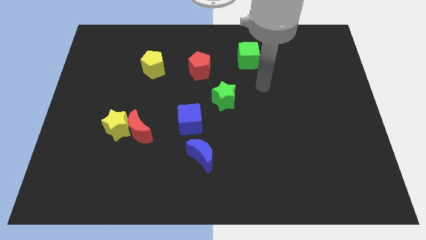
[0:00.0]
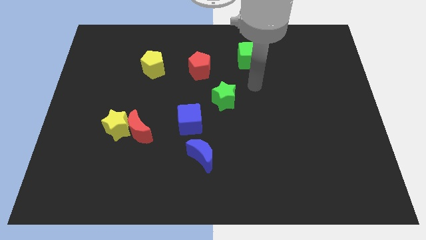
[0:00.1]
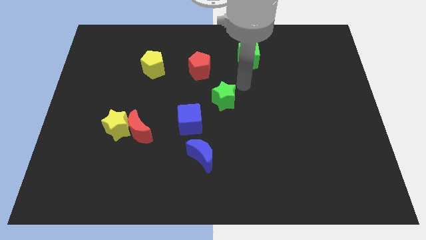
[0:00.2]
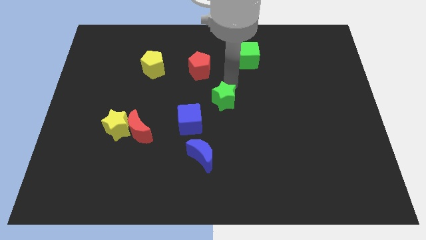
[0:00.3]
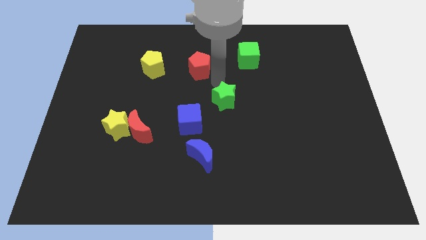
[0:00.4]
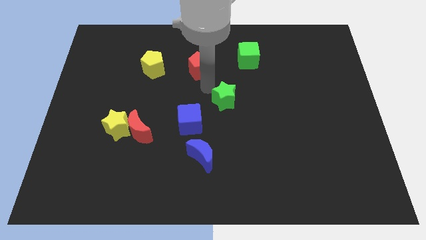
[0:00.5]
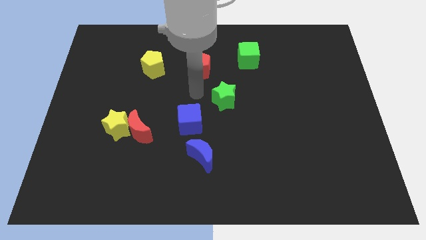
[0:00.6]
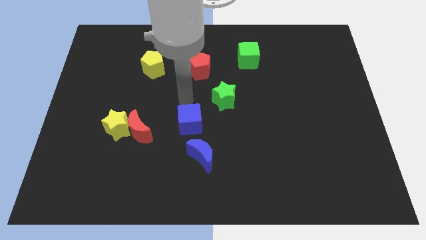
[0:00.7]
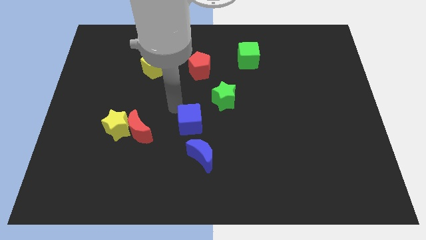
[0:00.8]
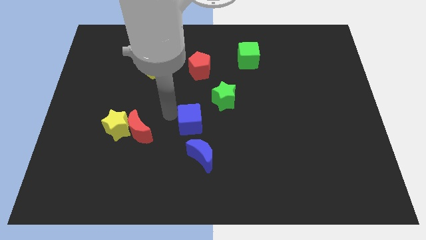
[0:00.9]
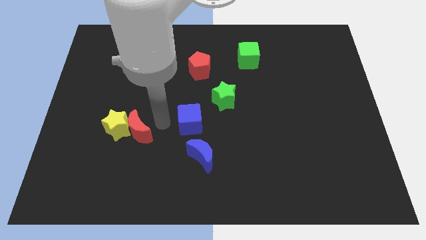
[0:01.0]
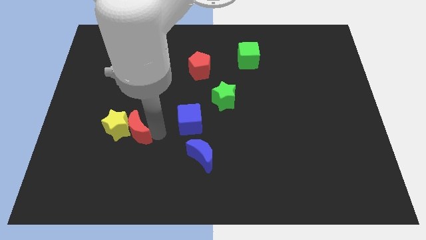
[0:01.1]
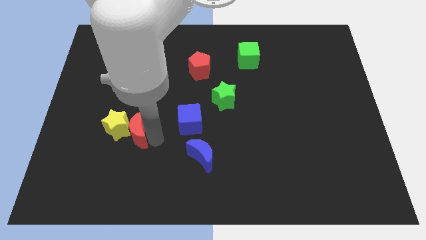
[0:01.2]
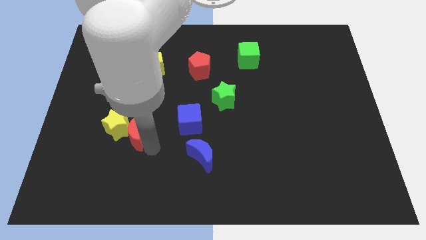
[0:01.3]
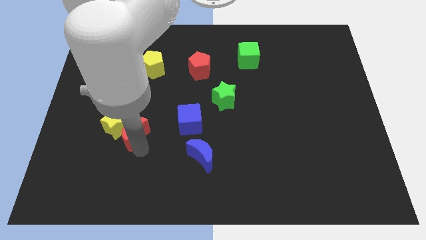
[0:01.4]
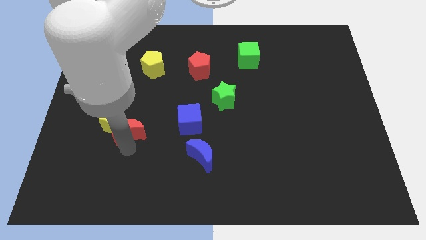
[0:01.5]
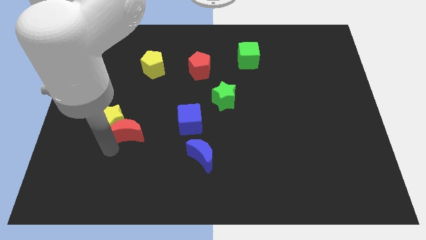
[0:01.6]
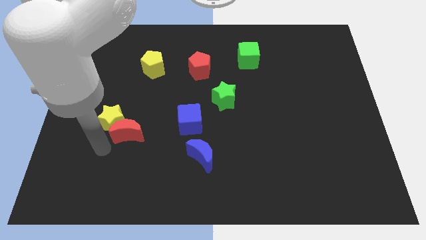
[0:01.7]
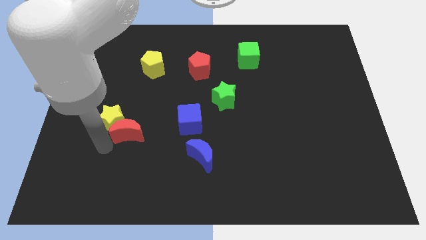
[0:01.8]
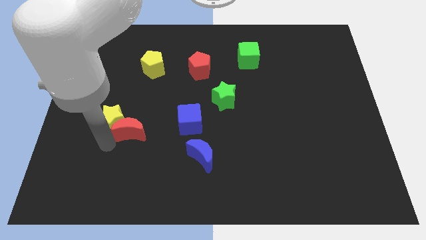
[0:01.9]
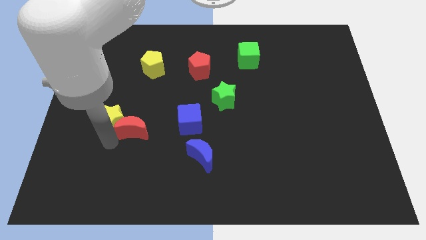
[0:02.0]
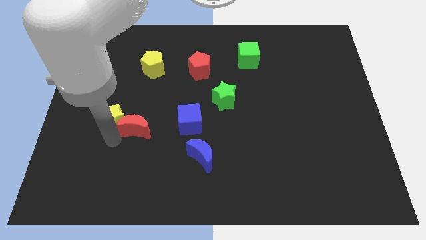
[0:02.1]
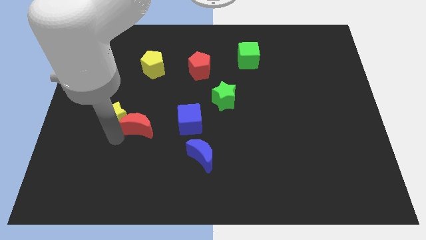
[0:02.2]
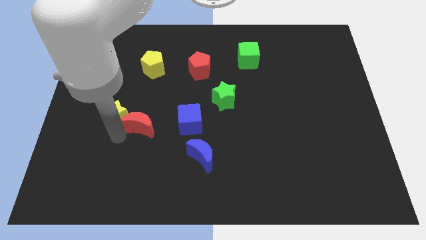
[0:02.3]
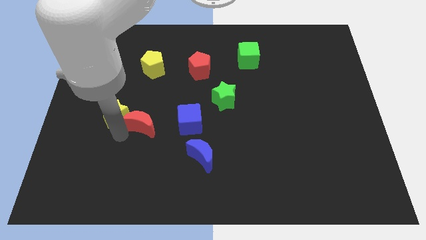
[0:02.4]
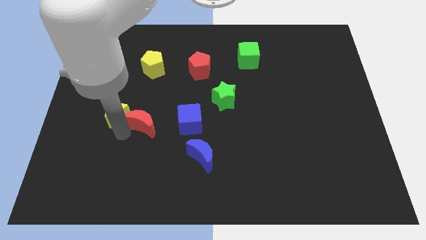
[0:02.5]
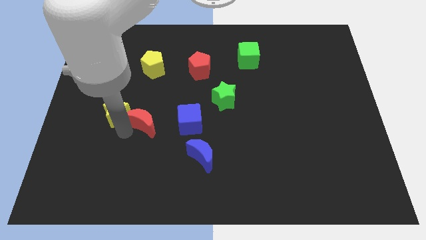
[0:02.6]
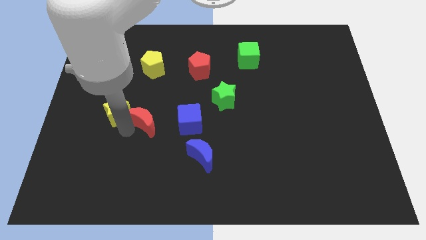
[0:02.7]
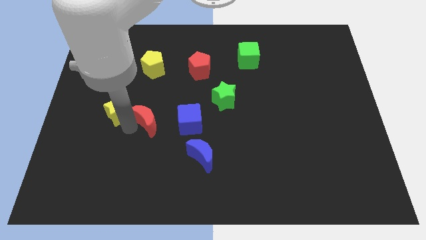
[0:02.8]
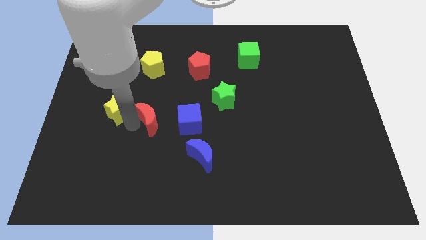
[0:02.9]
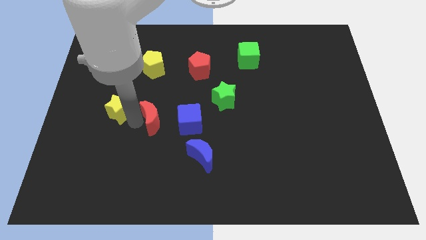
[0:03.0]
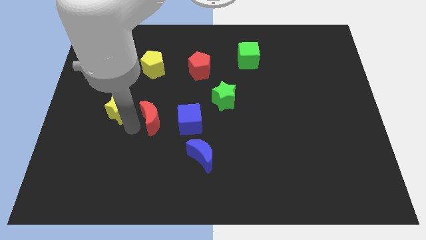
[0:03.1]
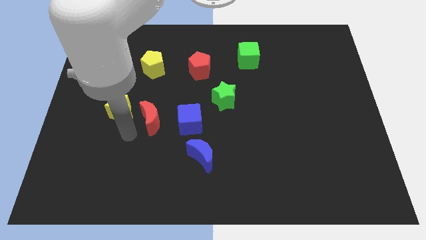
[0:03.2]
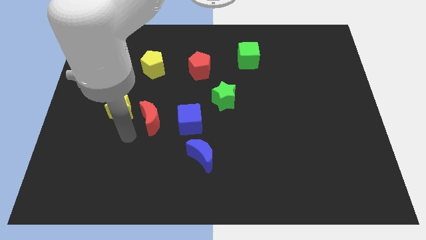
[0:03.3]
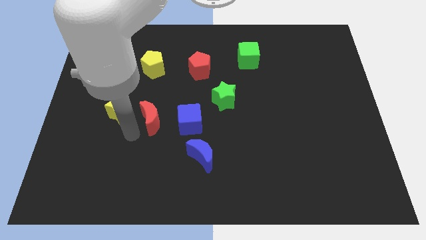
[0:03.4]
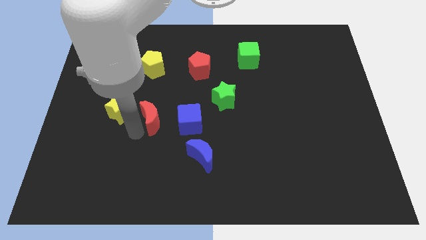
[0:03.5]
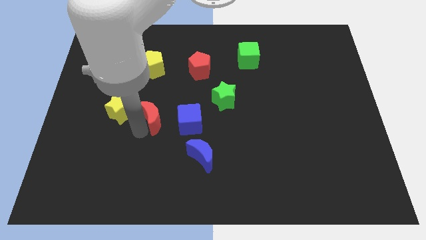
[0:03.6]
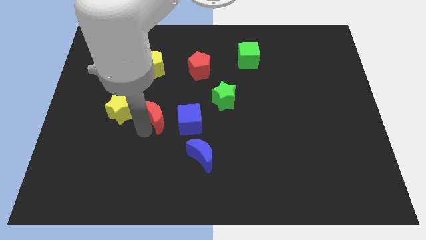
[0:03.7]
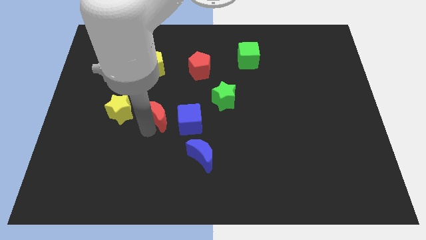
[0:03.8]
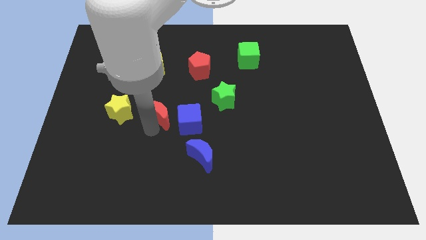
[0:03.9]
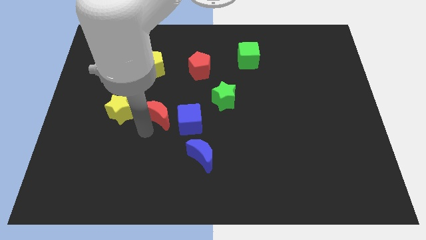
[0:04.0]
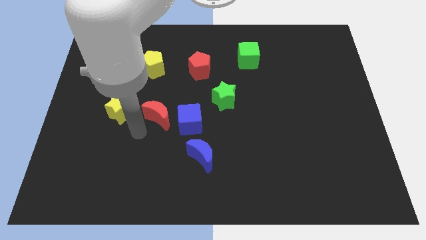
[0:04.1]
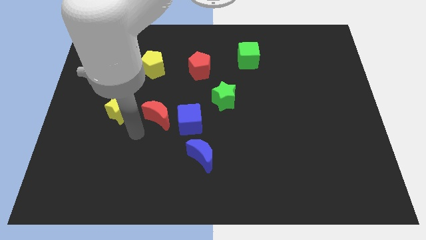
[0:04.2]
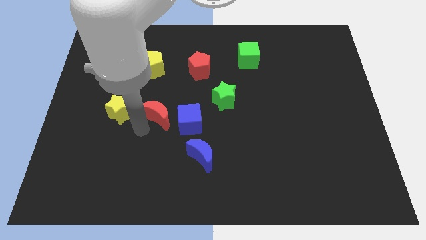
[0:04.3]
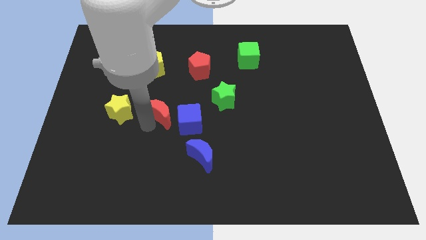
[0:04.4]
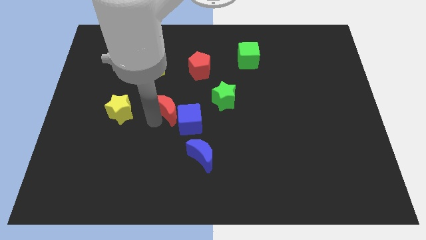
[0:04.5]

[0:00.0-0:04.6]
slide the red moon up and right somewhat

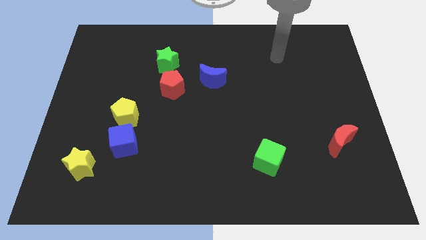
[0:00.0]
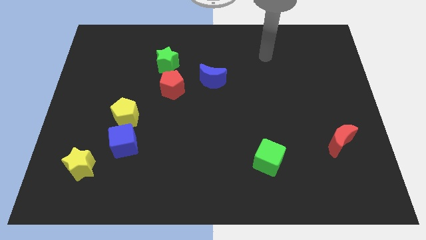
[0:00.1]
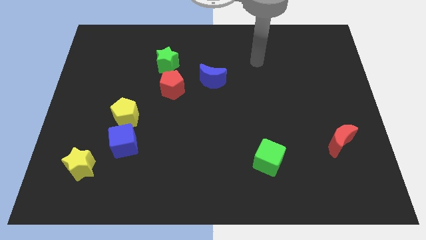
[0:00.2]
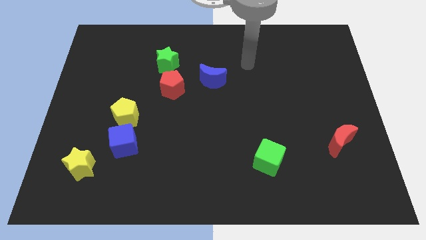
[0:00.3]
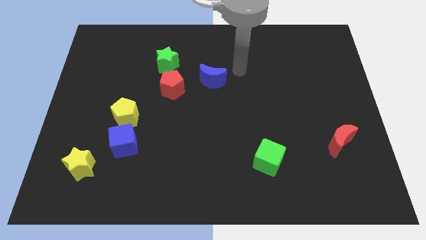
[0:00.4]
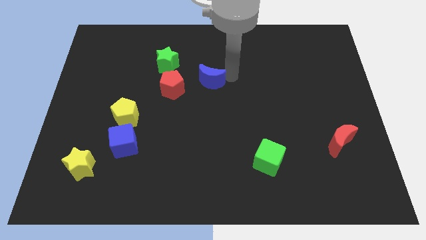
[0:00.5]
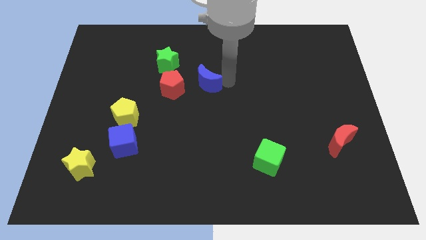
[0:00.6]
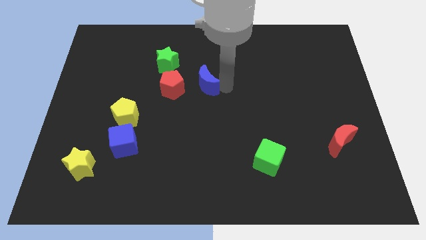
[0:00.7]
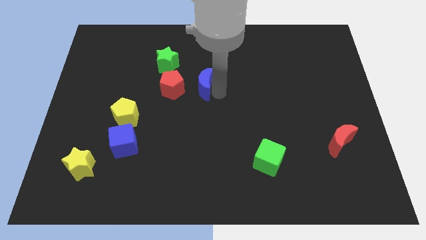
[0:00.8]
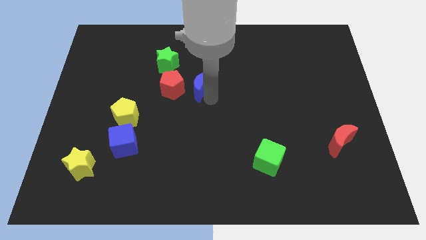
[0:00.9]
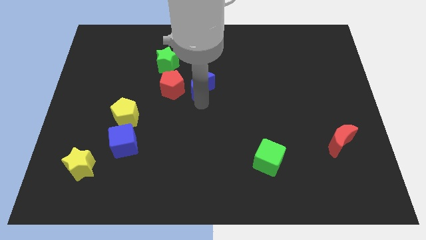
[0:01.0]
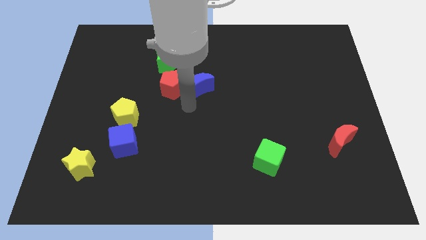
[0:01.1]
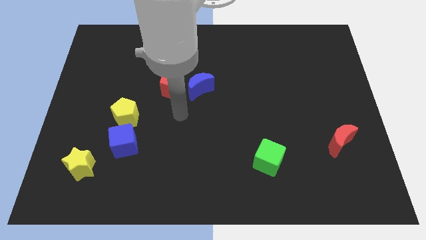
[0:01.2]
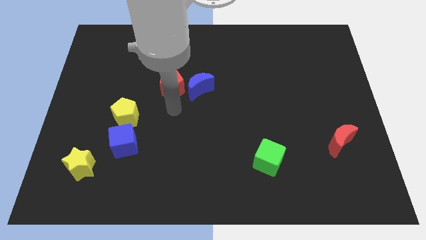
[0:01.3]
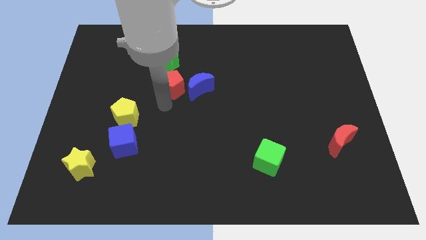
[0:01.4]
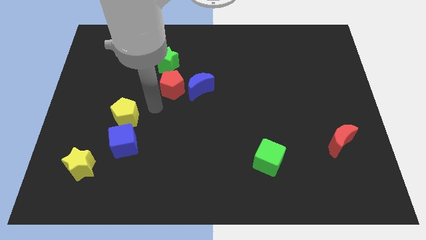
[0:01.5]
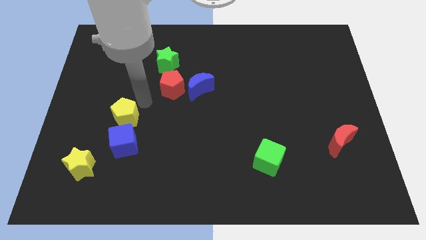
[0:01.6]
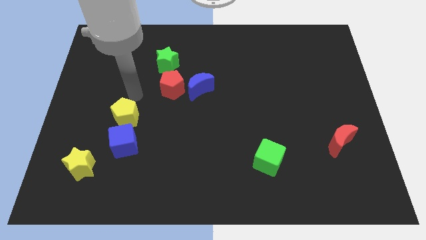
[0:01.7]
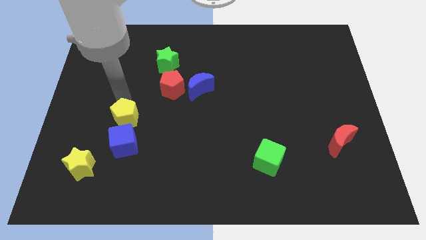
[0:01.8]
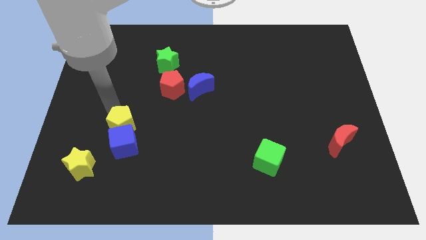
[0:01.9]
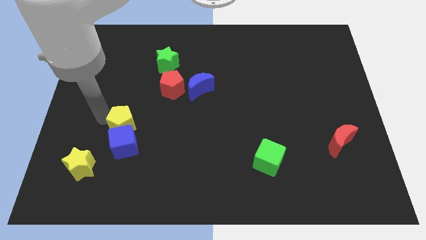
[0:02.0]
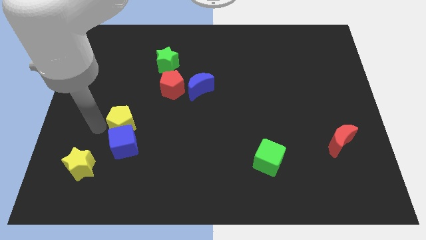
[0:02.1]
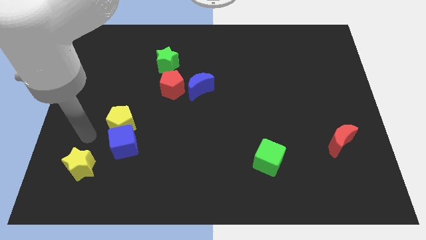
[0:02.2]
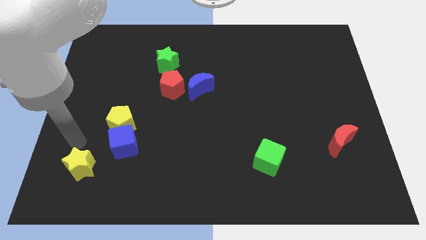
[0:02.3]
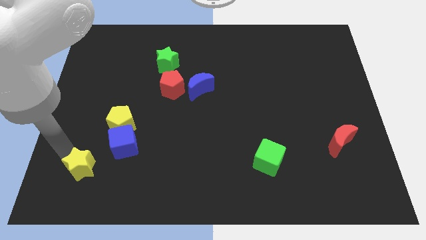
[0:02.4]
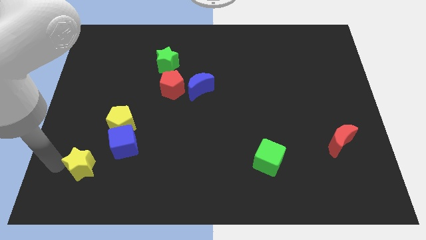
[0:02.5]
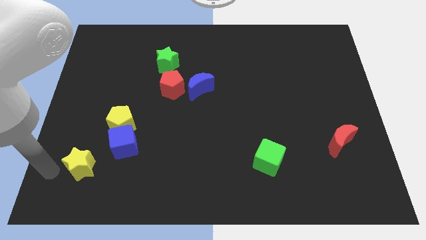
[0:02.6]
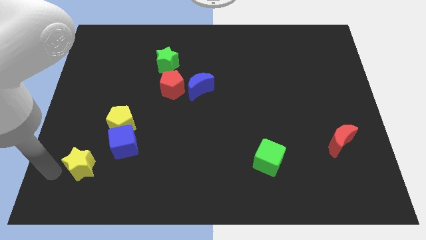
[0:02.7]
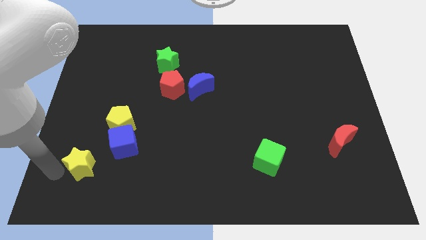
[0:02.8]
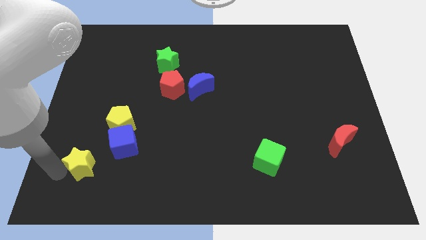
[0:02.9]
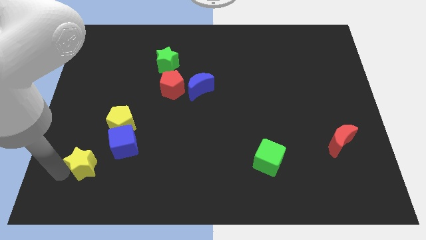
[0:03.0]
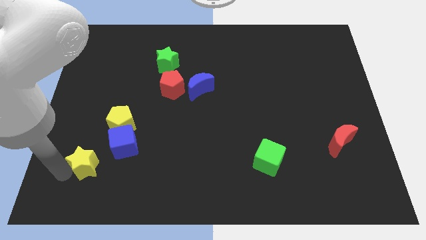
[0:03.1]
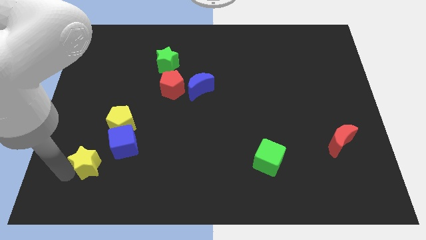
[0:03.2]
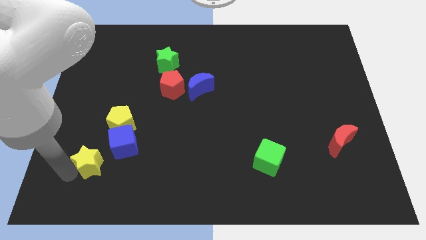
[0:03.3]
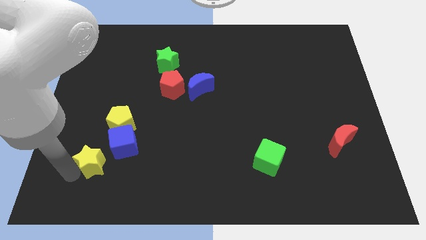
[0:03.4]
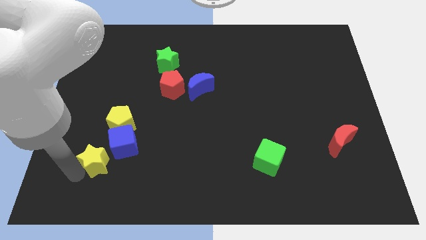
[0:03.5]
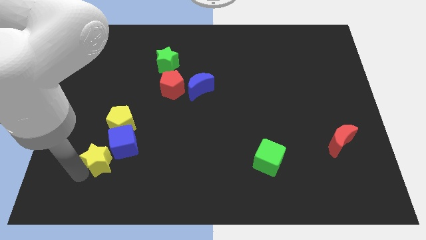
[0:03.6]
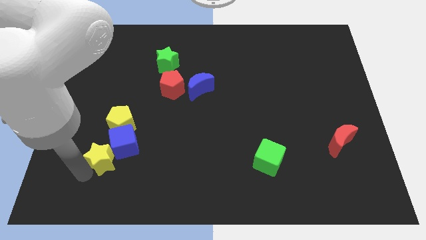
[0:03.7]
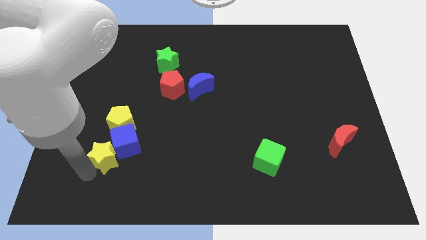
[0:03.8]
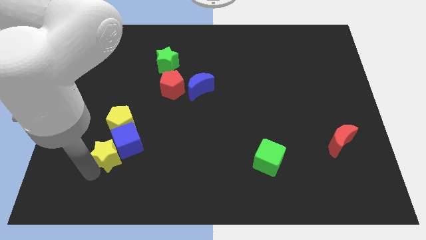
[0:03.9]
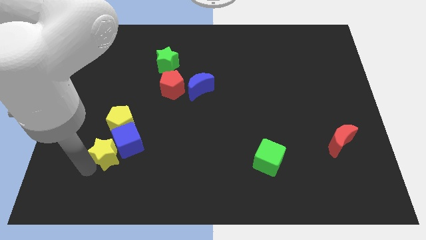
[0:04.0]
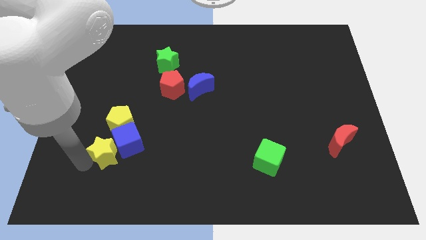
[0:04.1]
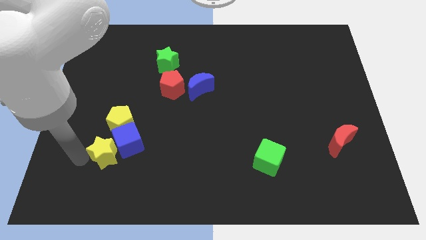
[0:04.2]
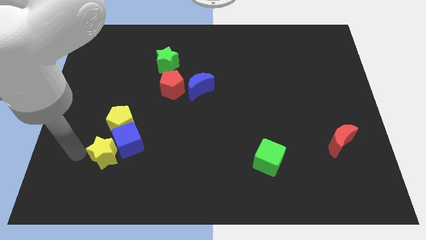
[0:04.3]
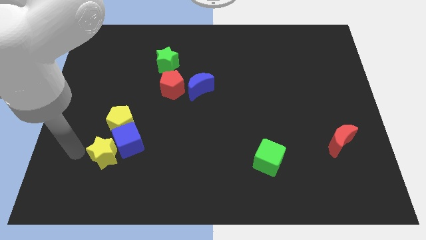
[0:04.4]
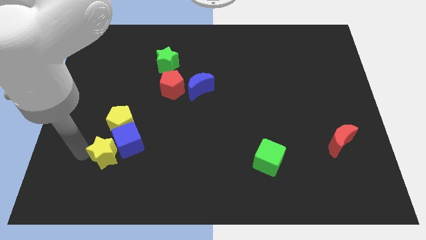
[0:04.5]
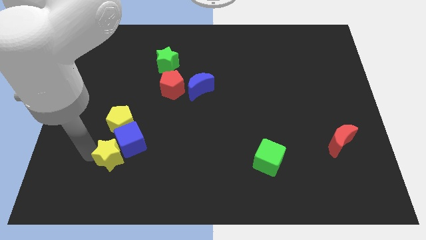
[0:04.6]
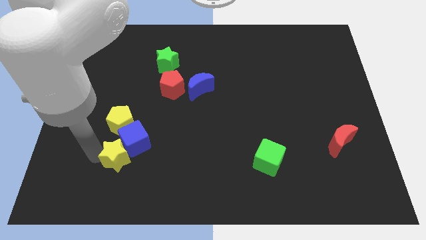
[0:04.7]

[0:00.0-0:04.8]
slightly slide the yellow star to the right
